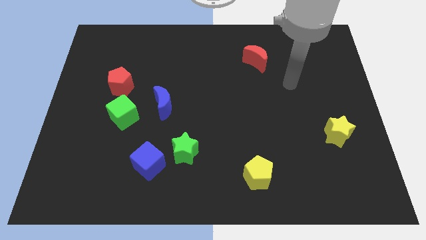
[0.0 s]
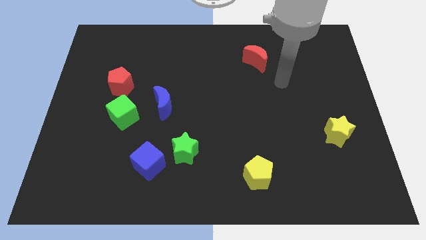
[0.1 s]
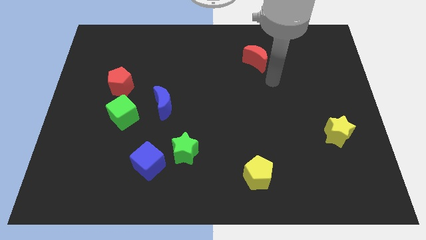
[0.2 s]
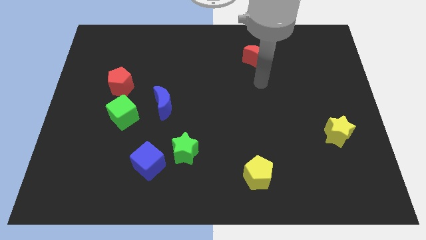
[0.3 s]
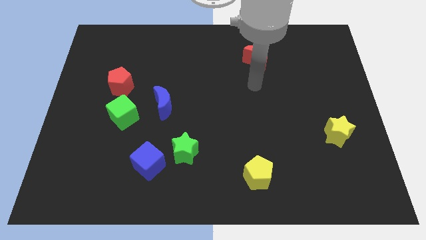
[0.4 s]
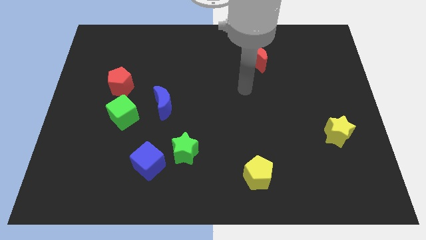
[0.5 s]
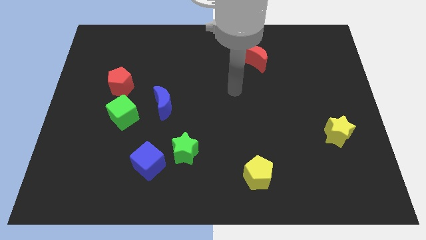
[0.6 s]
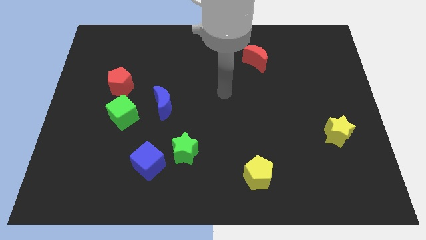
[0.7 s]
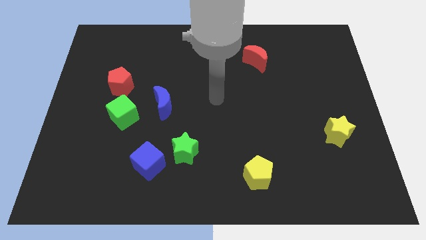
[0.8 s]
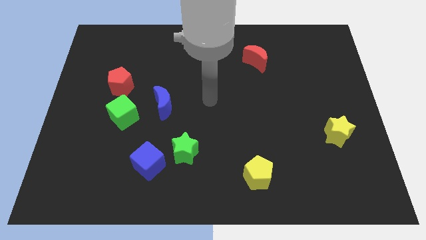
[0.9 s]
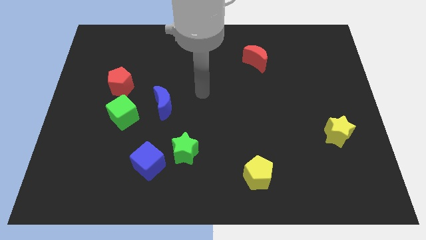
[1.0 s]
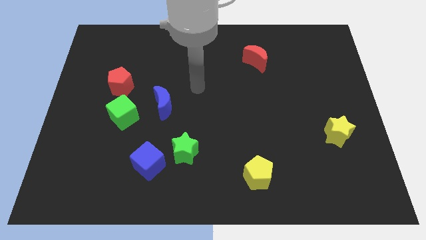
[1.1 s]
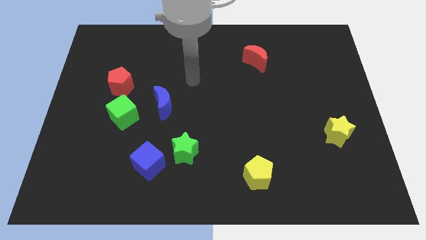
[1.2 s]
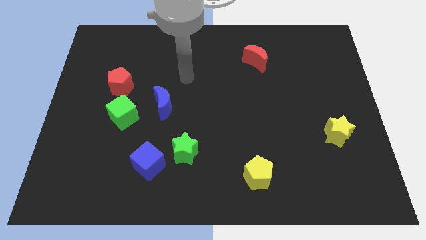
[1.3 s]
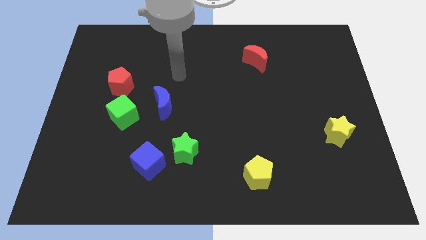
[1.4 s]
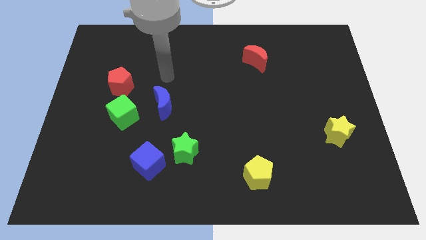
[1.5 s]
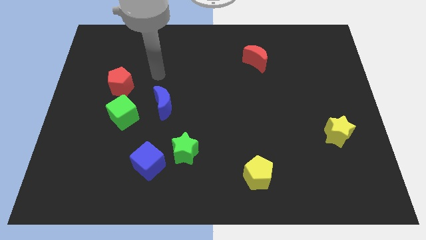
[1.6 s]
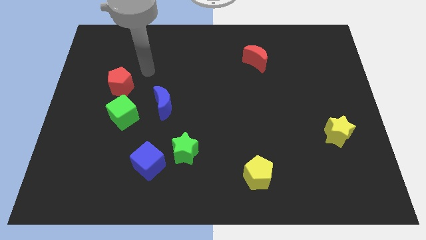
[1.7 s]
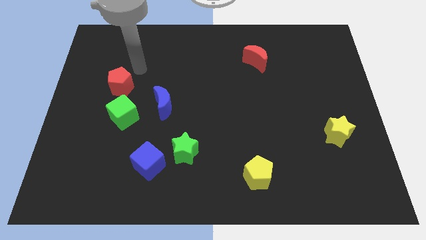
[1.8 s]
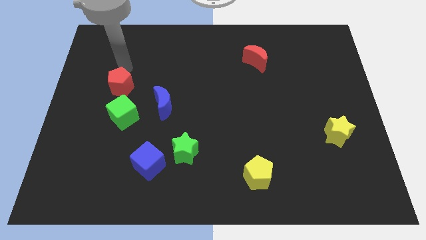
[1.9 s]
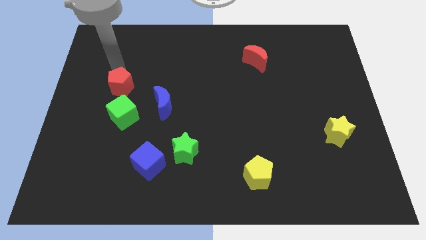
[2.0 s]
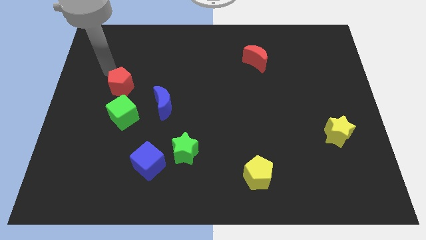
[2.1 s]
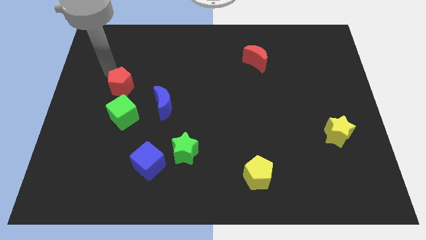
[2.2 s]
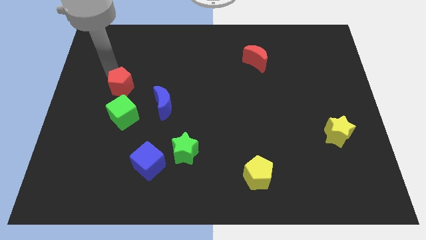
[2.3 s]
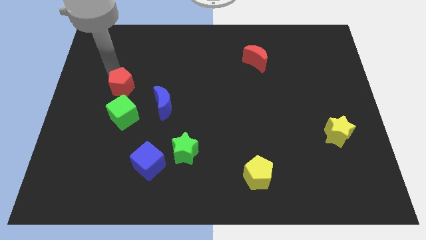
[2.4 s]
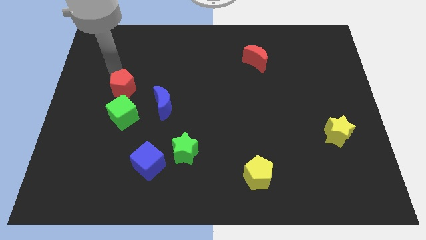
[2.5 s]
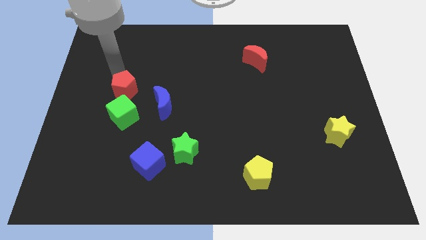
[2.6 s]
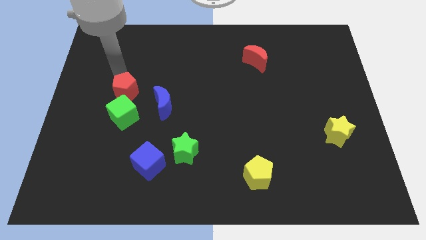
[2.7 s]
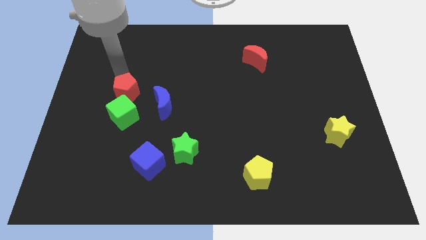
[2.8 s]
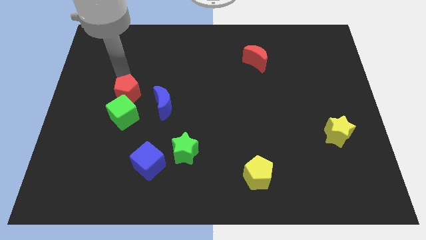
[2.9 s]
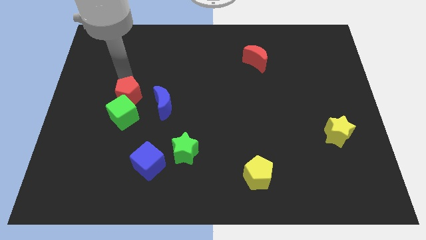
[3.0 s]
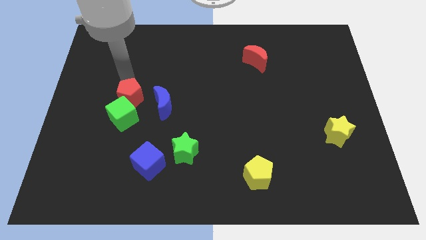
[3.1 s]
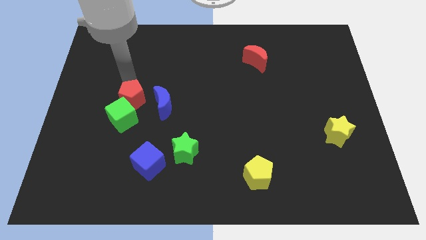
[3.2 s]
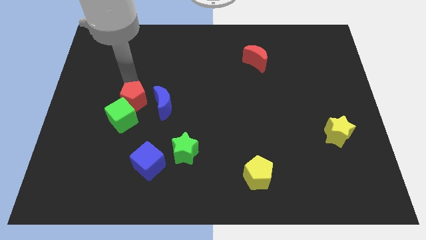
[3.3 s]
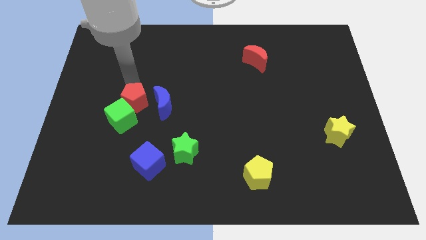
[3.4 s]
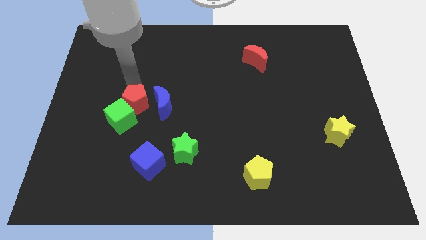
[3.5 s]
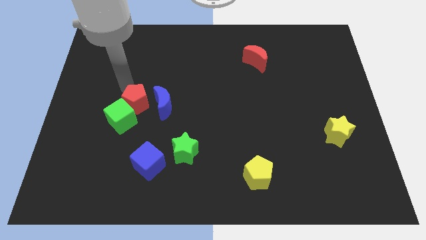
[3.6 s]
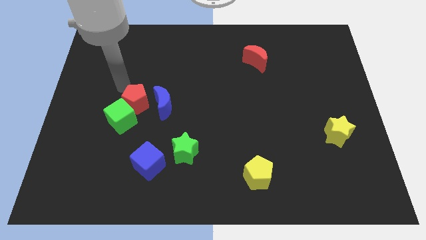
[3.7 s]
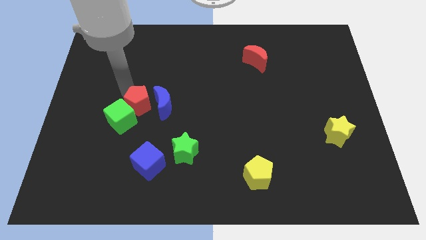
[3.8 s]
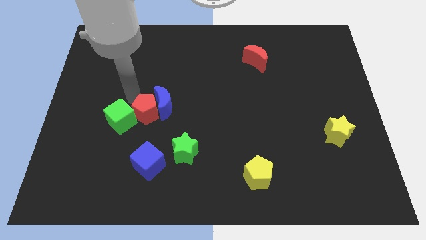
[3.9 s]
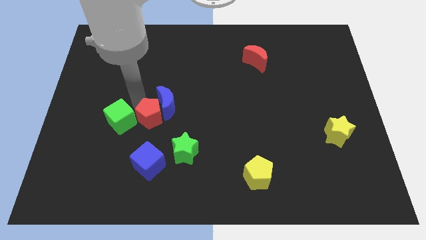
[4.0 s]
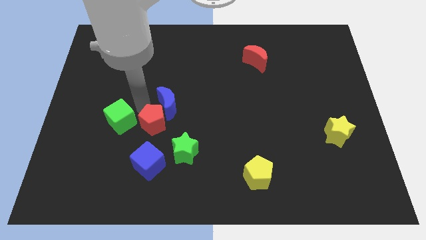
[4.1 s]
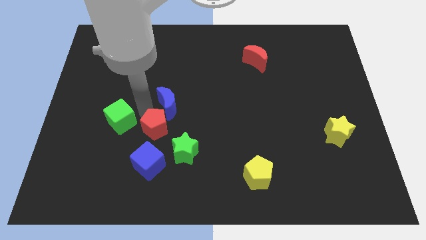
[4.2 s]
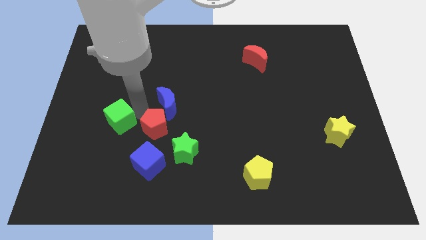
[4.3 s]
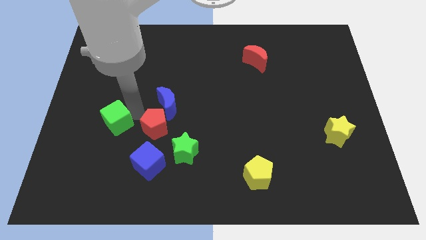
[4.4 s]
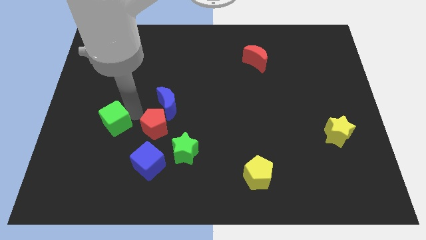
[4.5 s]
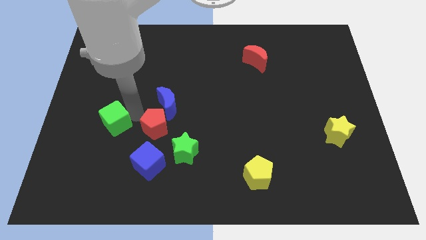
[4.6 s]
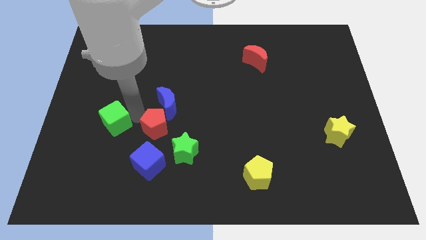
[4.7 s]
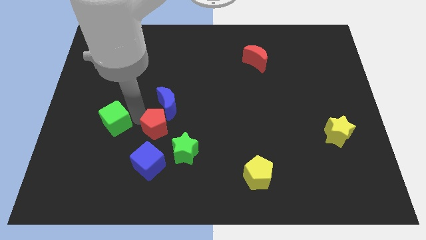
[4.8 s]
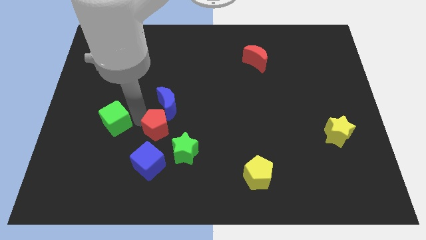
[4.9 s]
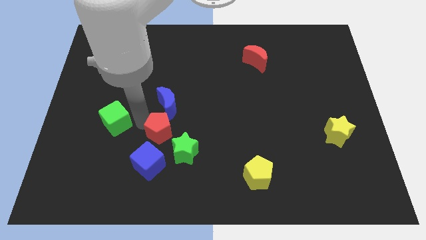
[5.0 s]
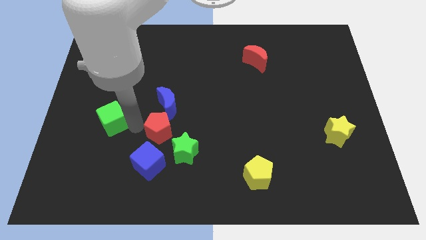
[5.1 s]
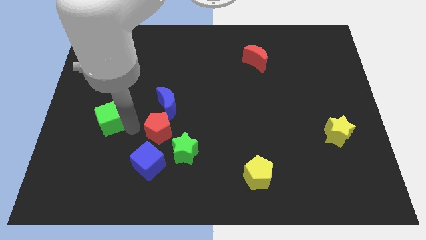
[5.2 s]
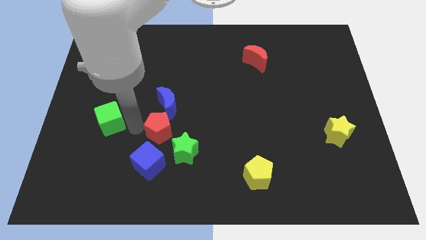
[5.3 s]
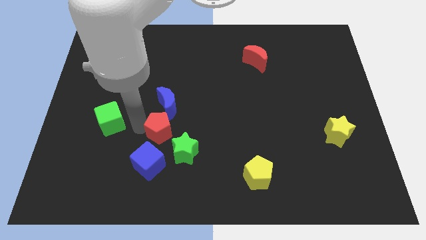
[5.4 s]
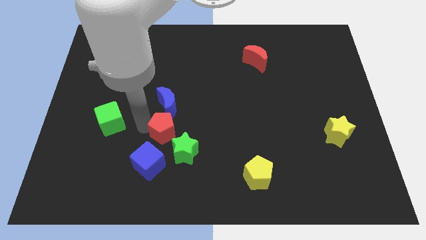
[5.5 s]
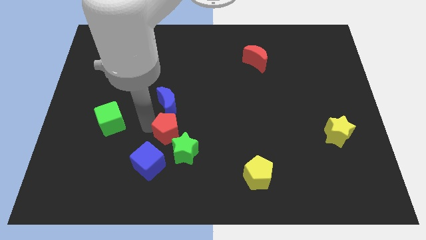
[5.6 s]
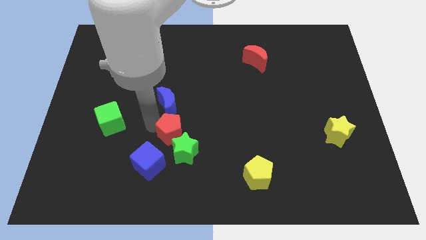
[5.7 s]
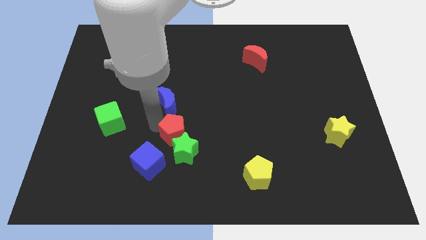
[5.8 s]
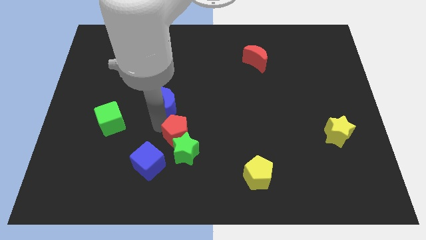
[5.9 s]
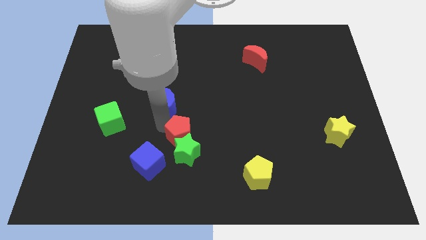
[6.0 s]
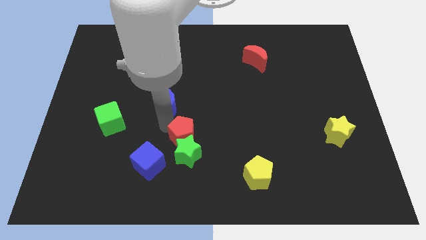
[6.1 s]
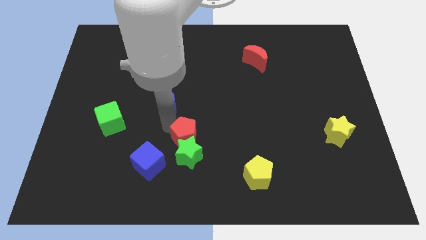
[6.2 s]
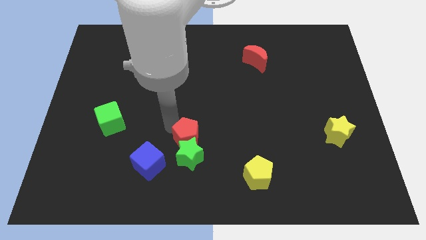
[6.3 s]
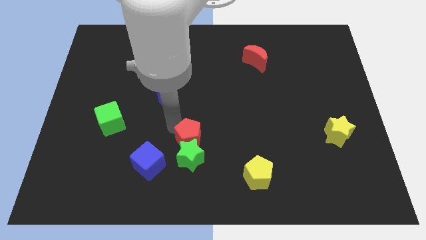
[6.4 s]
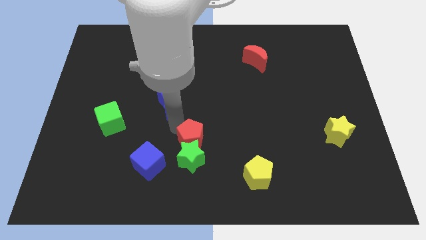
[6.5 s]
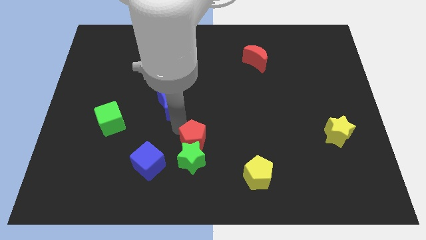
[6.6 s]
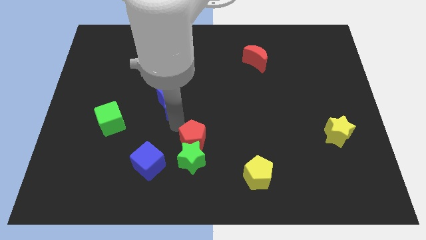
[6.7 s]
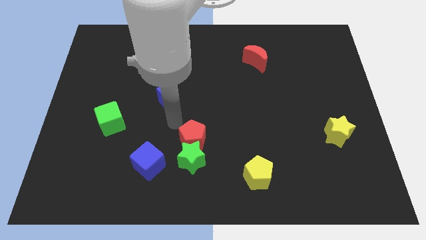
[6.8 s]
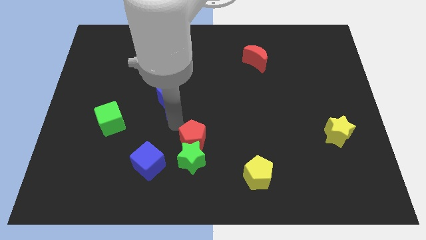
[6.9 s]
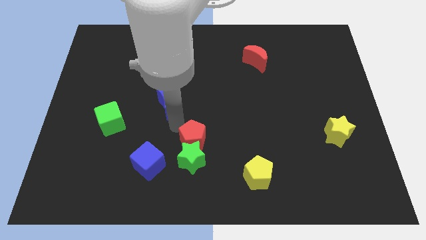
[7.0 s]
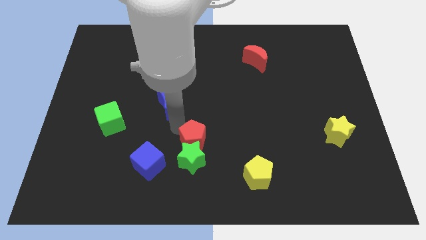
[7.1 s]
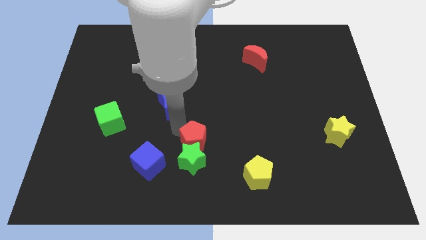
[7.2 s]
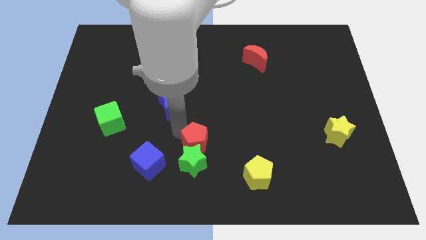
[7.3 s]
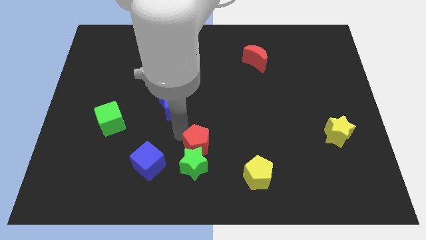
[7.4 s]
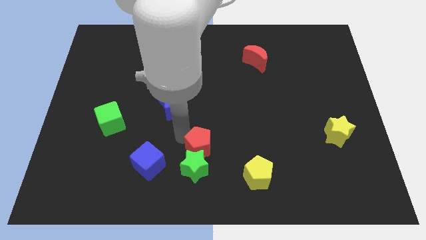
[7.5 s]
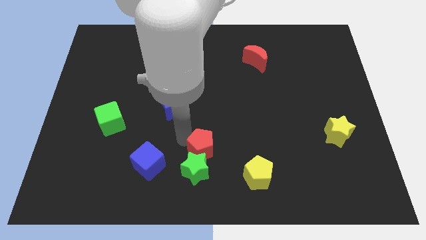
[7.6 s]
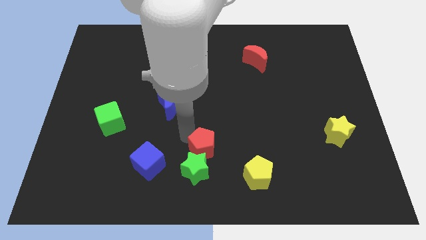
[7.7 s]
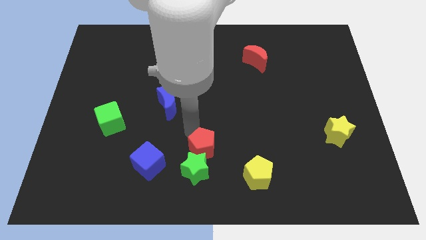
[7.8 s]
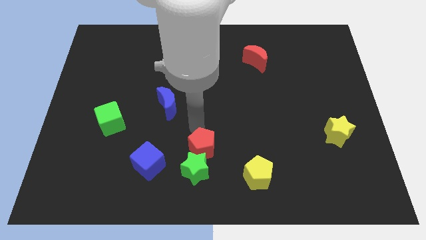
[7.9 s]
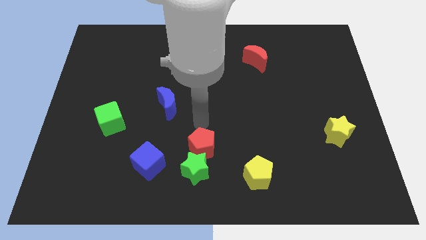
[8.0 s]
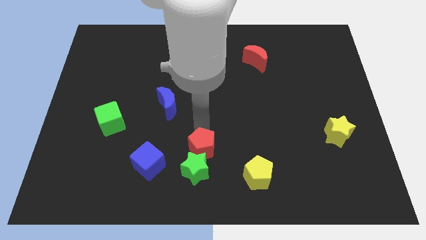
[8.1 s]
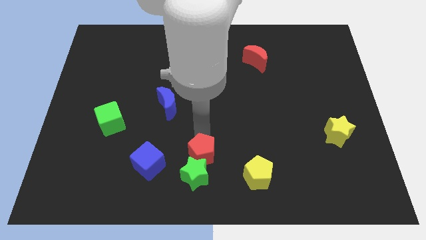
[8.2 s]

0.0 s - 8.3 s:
move the red pentagon to the bottom side
